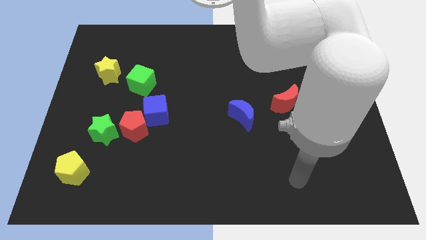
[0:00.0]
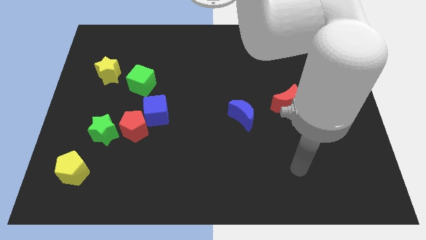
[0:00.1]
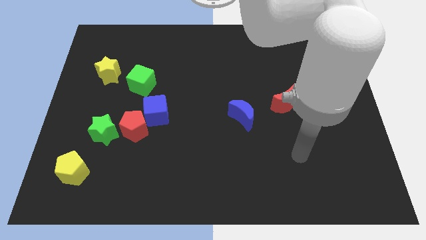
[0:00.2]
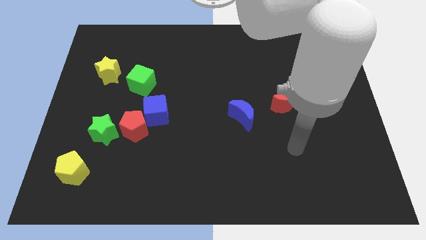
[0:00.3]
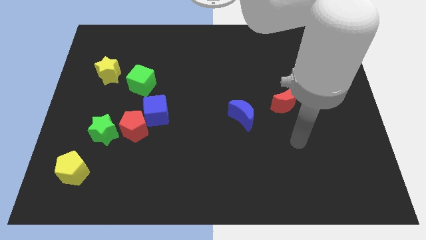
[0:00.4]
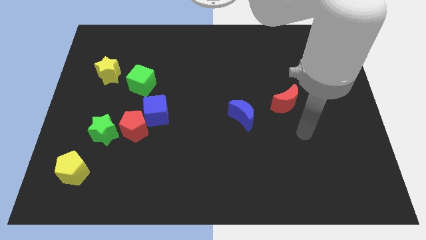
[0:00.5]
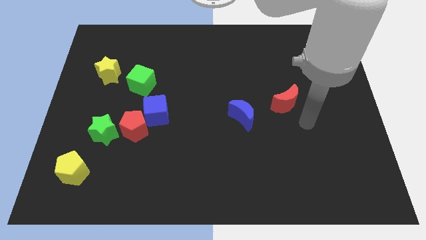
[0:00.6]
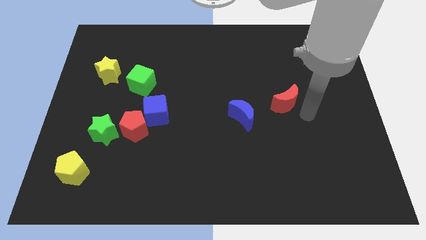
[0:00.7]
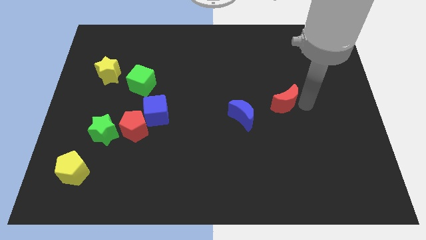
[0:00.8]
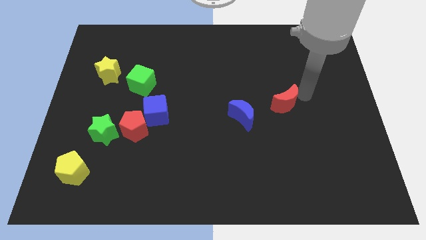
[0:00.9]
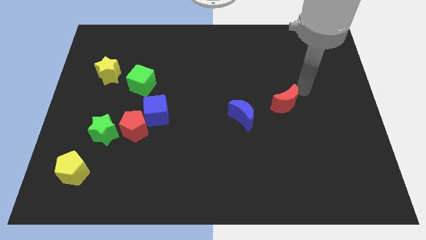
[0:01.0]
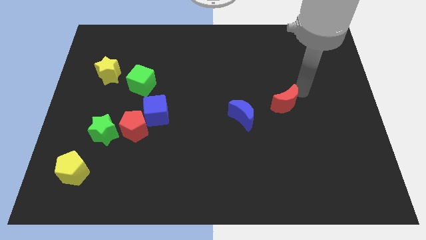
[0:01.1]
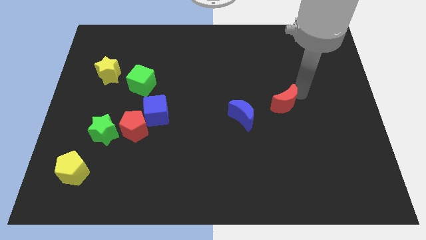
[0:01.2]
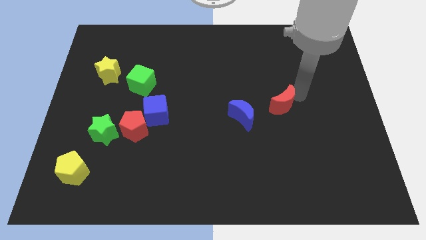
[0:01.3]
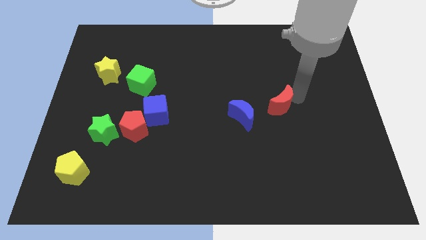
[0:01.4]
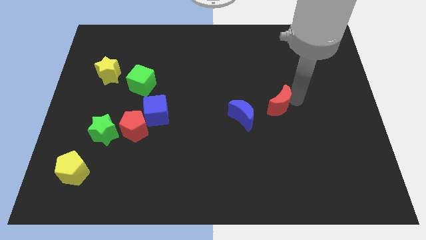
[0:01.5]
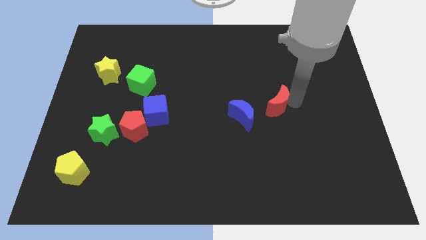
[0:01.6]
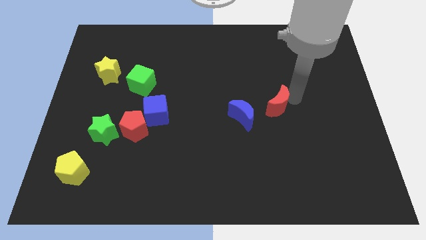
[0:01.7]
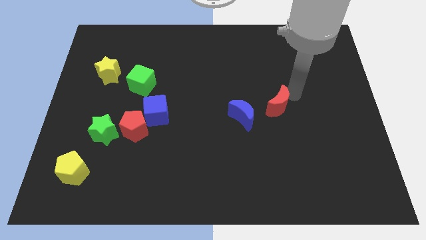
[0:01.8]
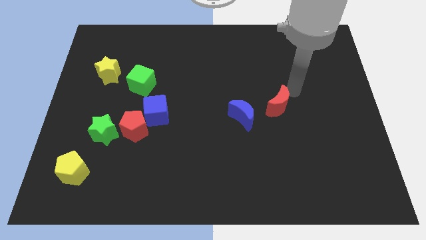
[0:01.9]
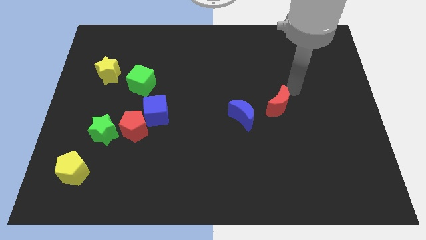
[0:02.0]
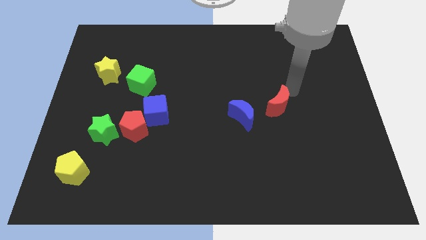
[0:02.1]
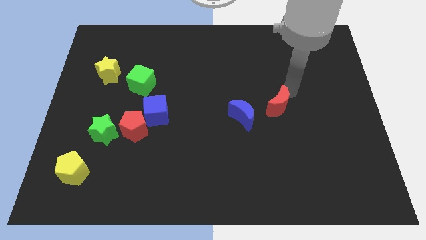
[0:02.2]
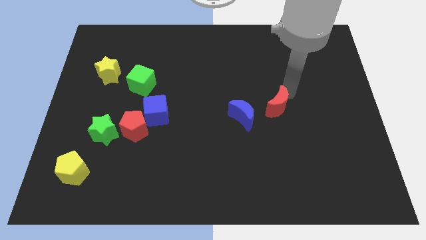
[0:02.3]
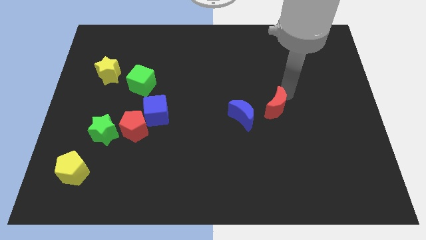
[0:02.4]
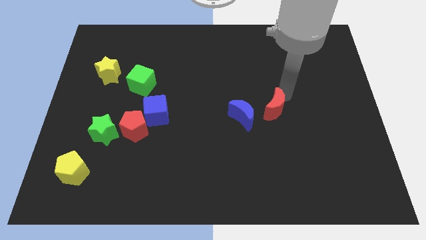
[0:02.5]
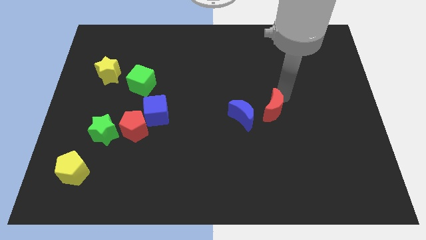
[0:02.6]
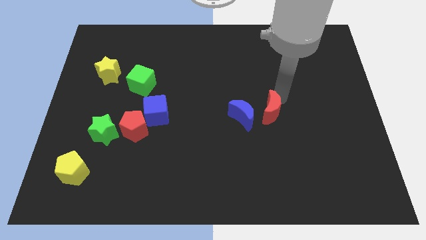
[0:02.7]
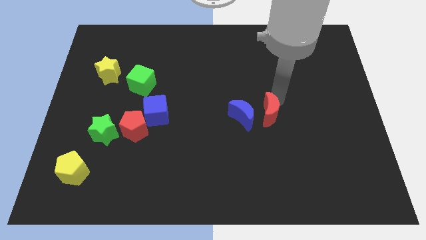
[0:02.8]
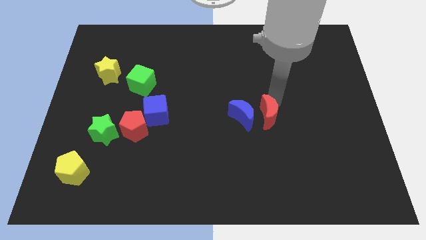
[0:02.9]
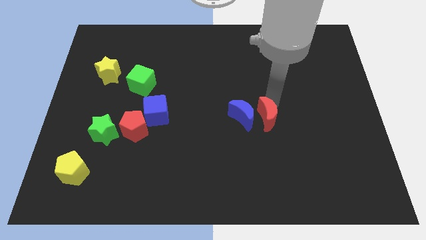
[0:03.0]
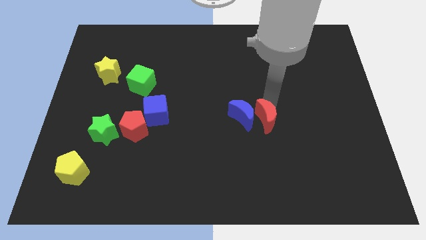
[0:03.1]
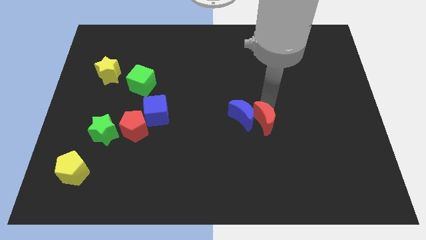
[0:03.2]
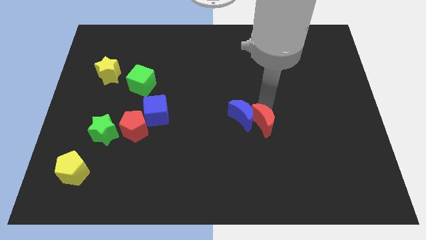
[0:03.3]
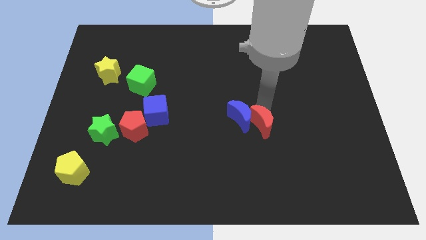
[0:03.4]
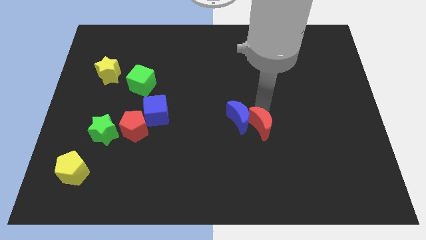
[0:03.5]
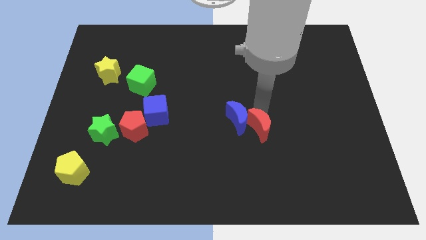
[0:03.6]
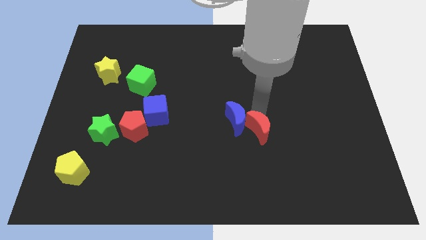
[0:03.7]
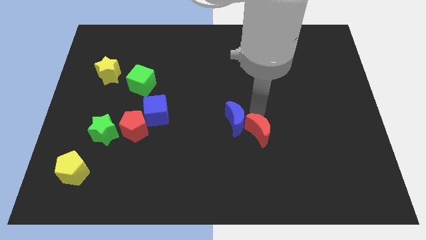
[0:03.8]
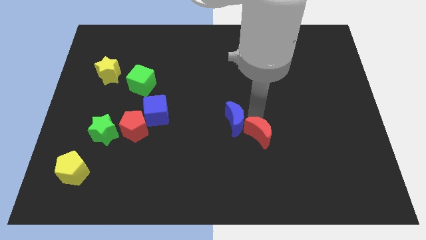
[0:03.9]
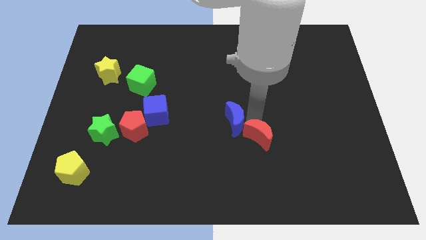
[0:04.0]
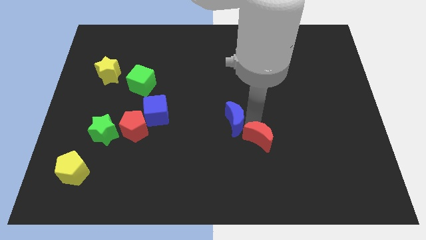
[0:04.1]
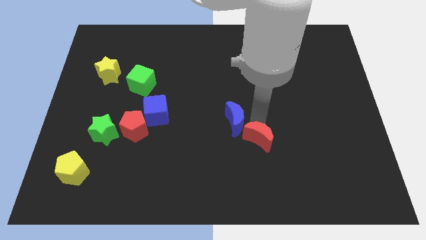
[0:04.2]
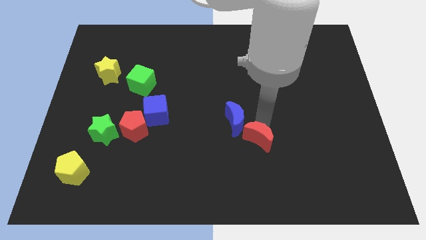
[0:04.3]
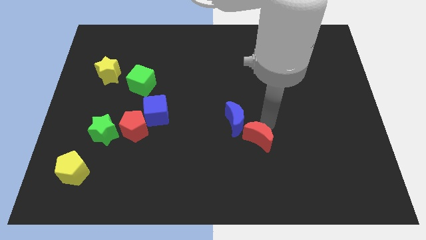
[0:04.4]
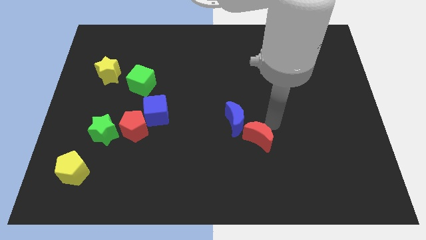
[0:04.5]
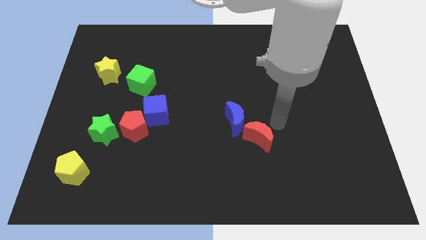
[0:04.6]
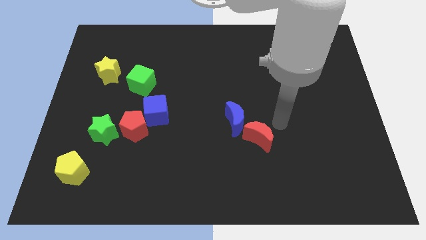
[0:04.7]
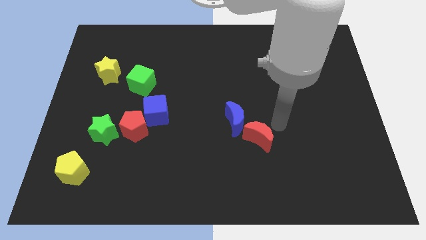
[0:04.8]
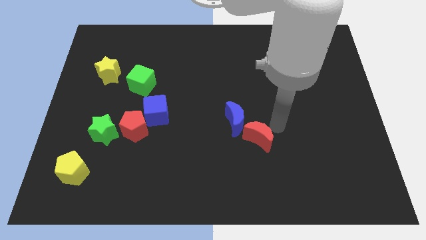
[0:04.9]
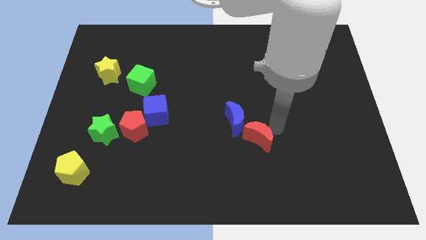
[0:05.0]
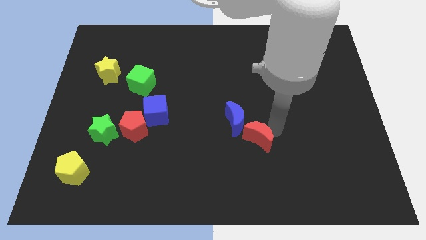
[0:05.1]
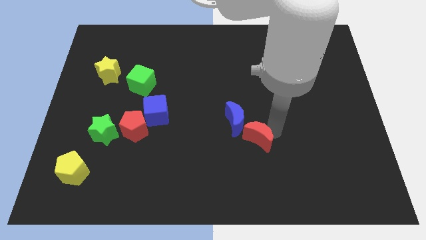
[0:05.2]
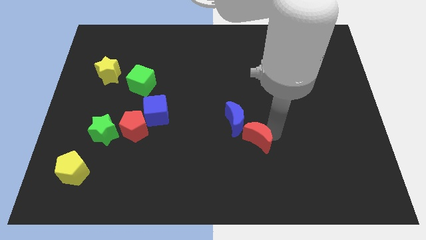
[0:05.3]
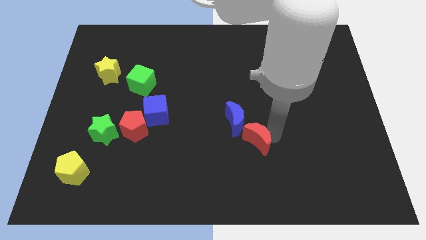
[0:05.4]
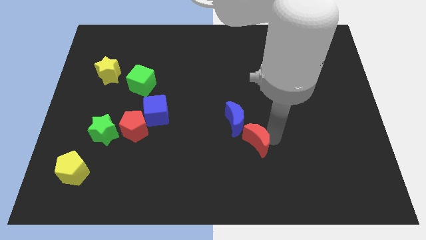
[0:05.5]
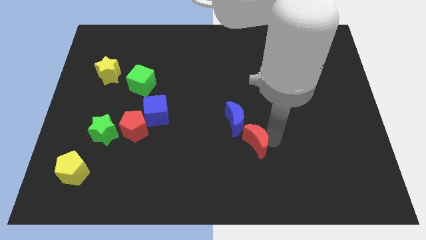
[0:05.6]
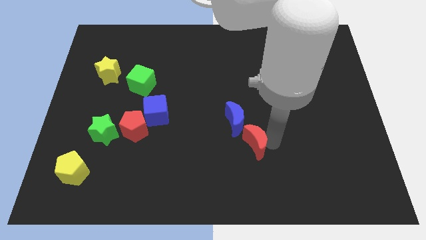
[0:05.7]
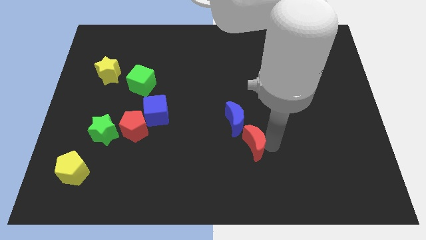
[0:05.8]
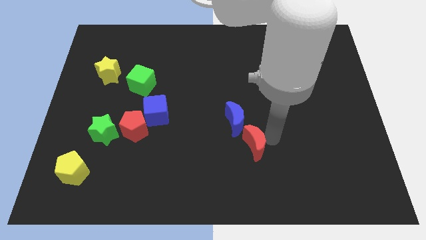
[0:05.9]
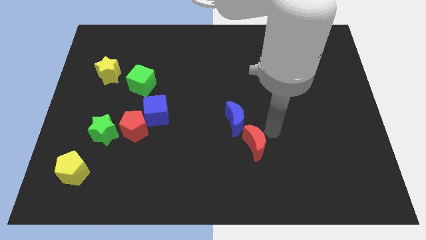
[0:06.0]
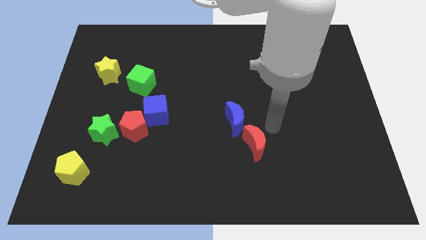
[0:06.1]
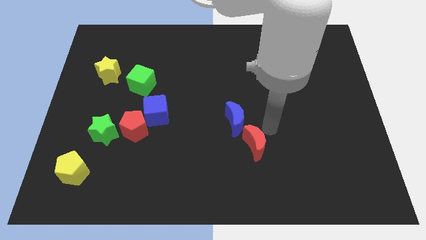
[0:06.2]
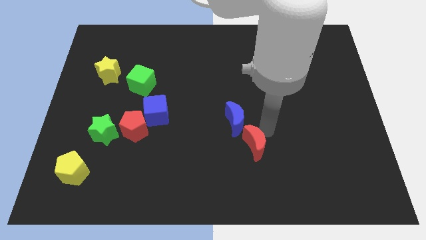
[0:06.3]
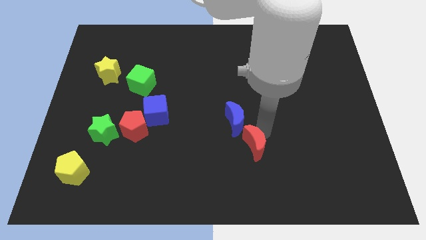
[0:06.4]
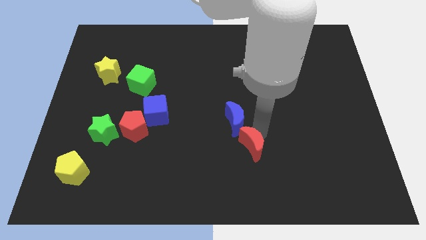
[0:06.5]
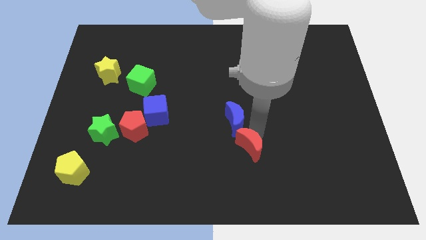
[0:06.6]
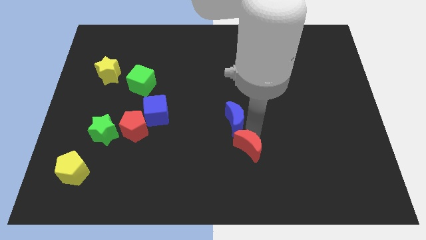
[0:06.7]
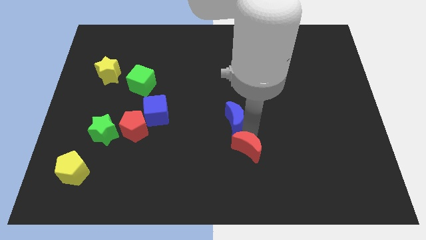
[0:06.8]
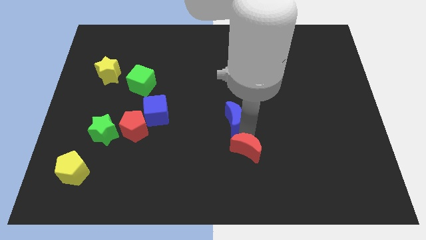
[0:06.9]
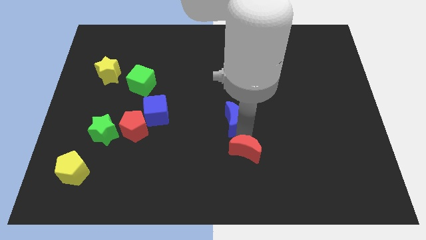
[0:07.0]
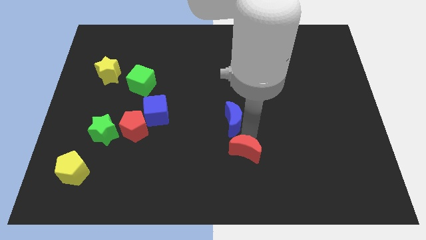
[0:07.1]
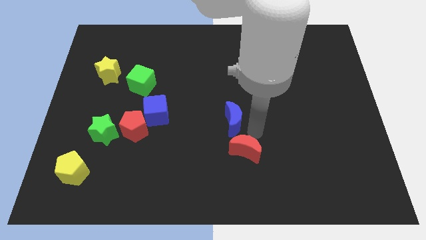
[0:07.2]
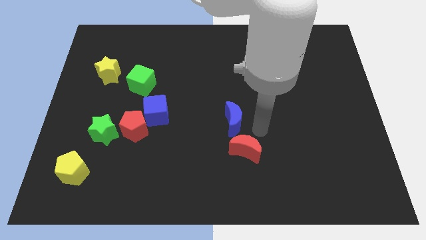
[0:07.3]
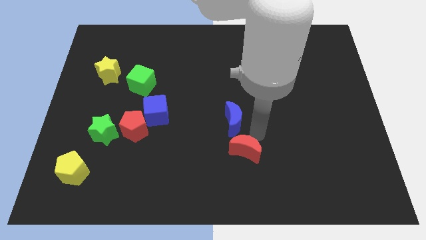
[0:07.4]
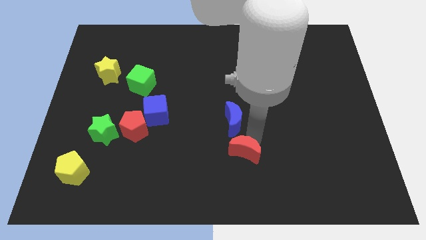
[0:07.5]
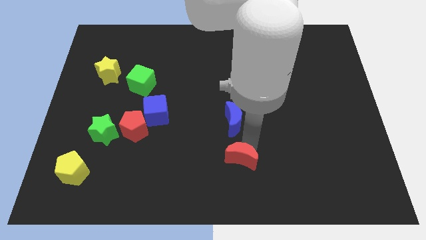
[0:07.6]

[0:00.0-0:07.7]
move the red moon to the bottom
